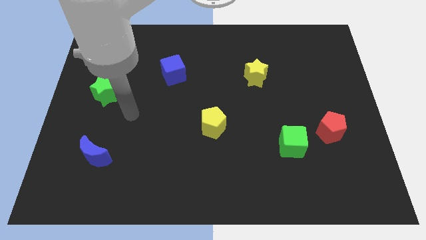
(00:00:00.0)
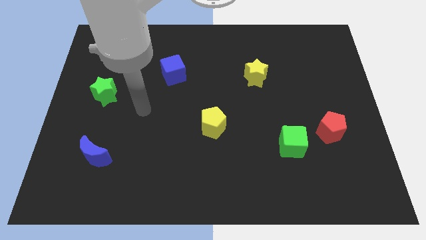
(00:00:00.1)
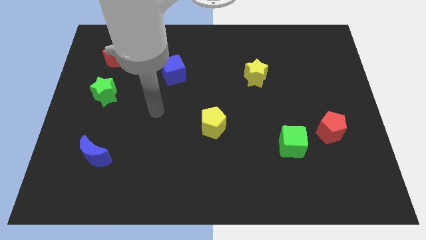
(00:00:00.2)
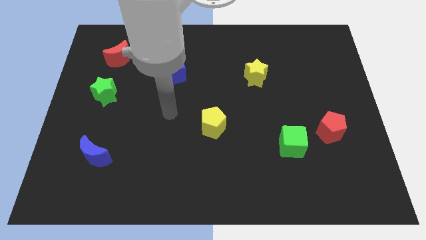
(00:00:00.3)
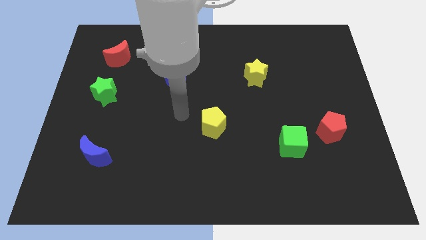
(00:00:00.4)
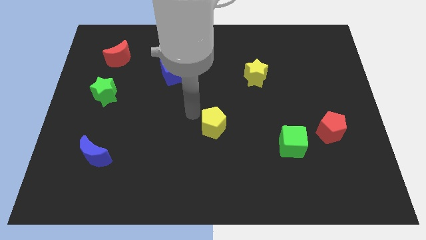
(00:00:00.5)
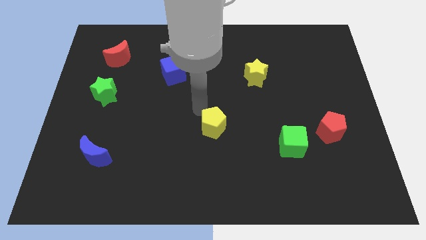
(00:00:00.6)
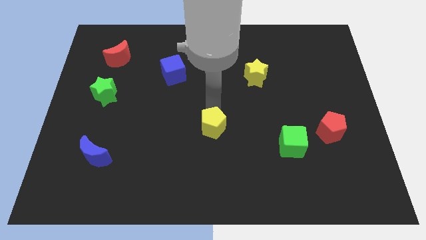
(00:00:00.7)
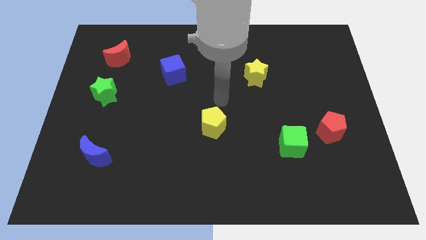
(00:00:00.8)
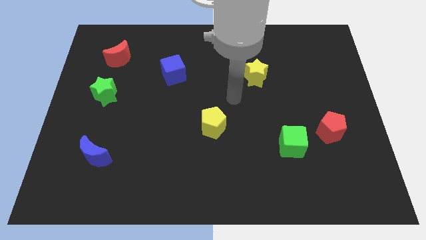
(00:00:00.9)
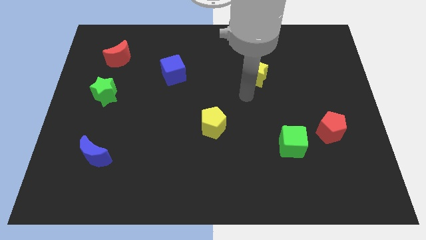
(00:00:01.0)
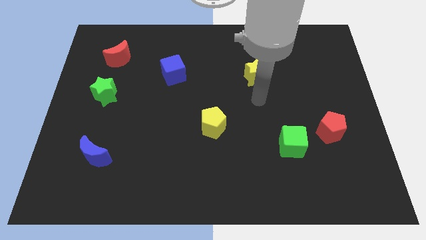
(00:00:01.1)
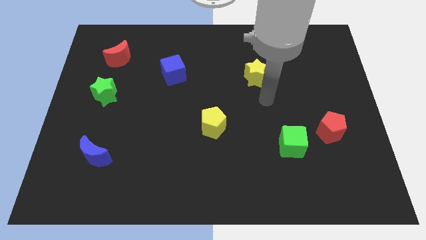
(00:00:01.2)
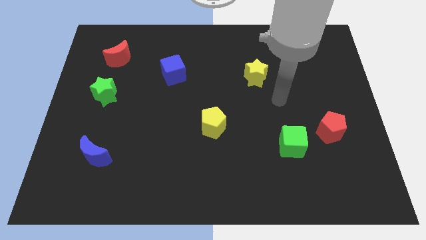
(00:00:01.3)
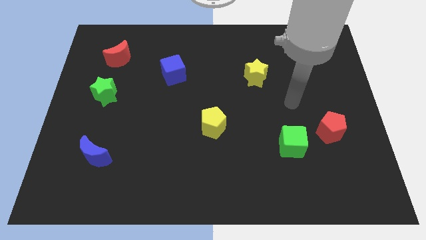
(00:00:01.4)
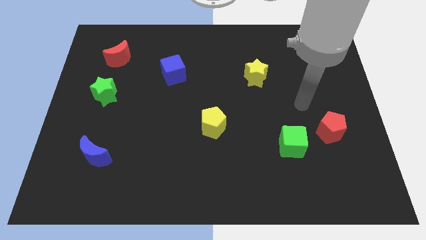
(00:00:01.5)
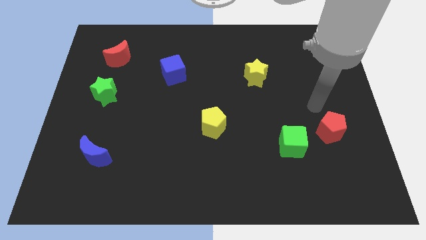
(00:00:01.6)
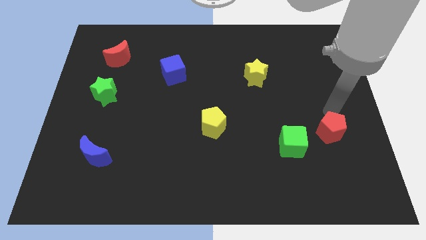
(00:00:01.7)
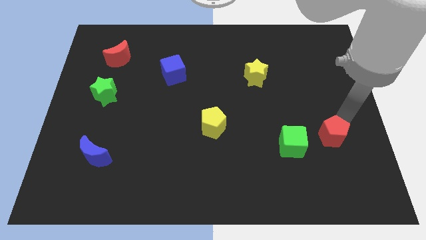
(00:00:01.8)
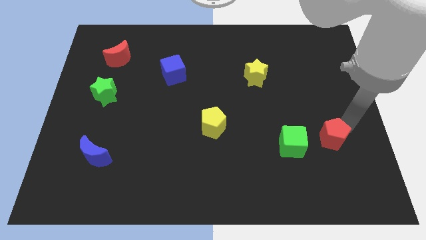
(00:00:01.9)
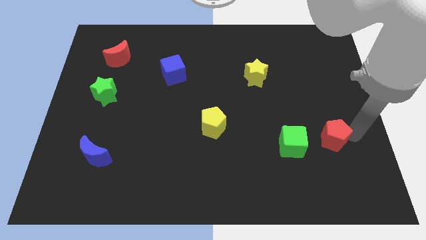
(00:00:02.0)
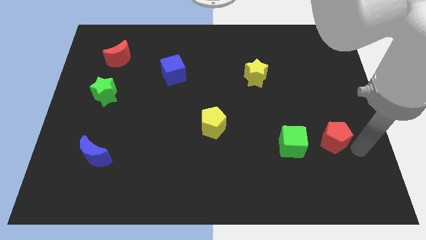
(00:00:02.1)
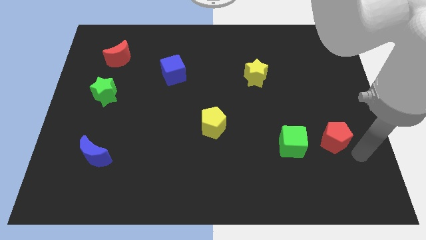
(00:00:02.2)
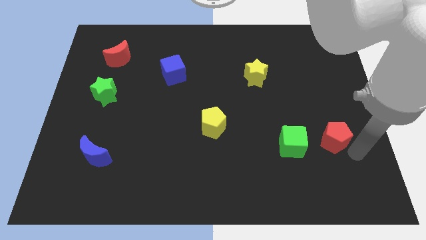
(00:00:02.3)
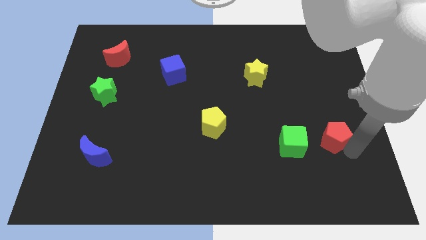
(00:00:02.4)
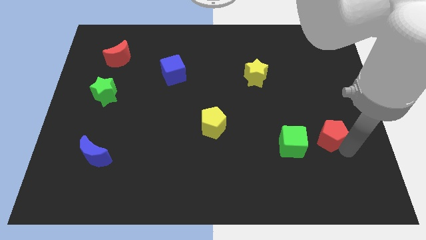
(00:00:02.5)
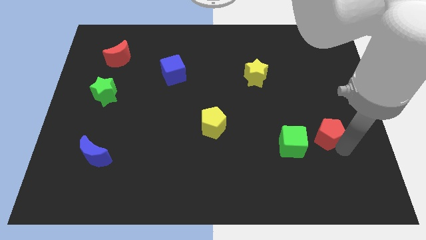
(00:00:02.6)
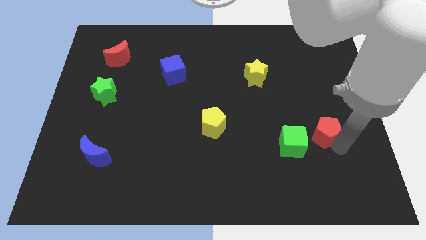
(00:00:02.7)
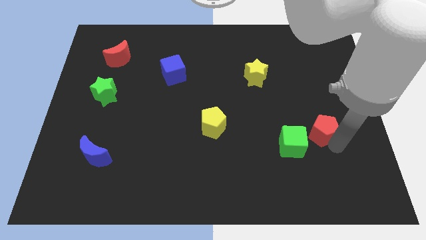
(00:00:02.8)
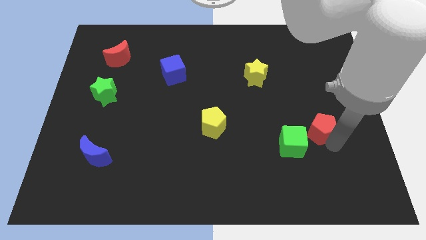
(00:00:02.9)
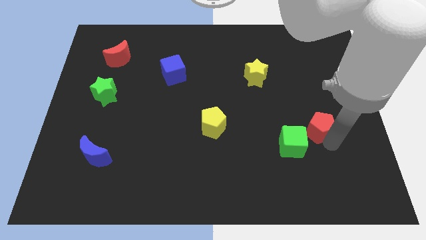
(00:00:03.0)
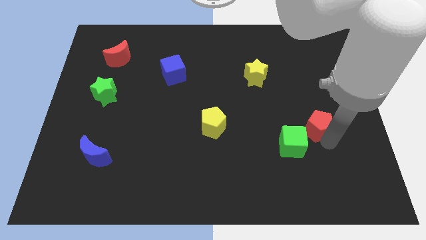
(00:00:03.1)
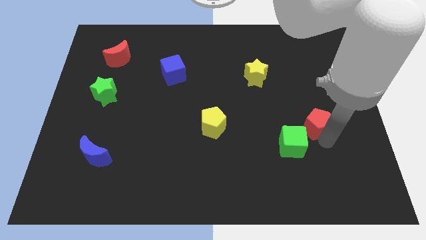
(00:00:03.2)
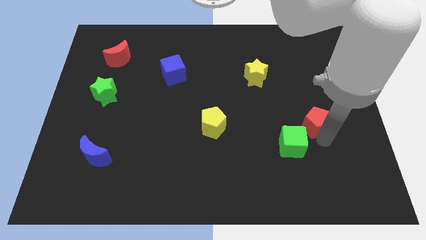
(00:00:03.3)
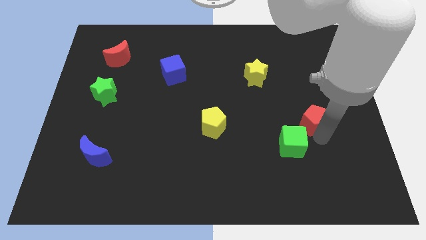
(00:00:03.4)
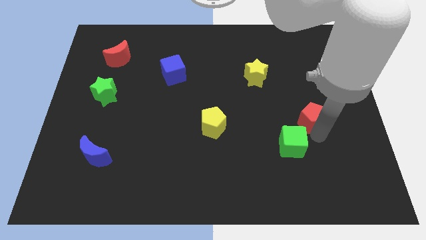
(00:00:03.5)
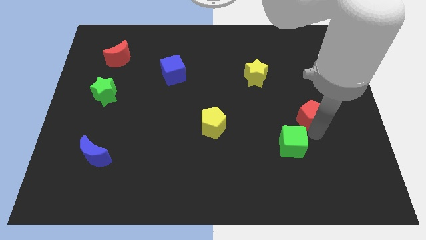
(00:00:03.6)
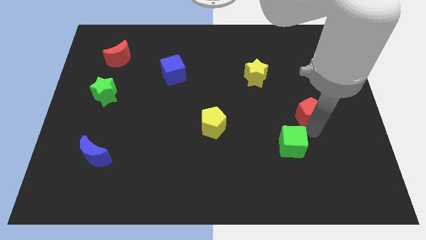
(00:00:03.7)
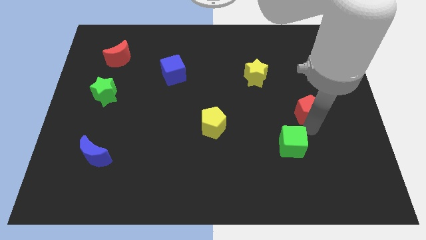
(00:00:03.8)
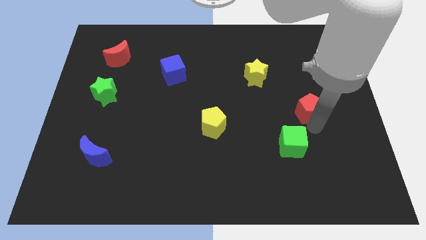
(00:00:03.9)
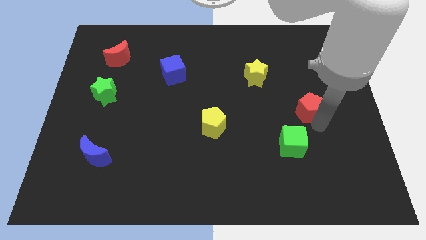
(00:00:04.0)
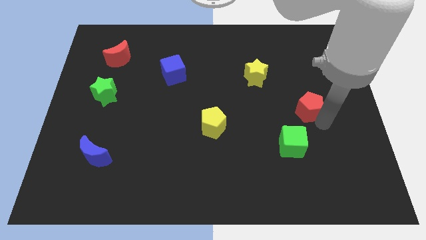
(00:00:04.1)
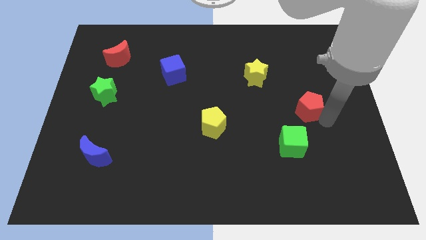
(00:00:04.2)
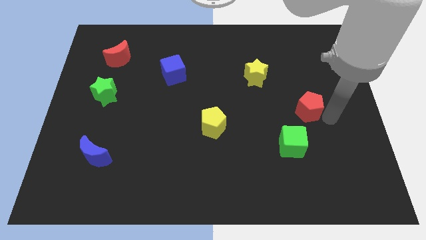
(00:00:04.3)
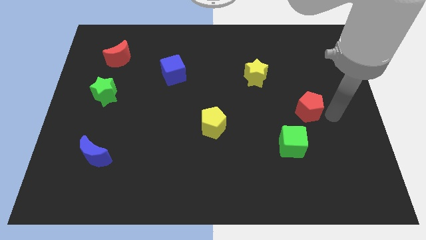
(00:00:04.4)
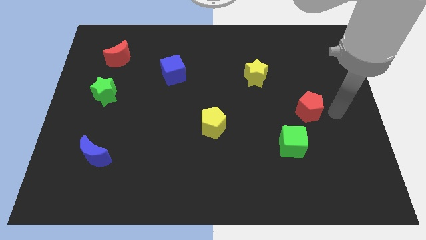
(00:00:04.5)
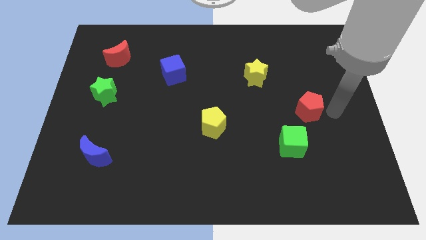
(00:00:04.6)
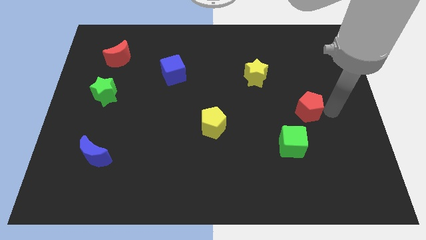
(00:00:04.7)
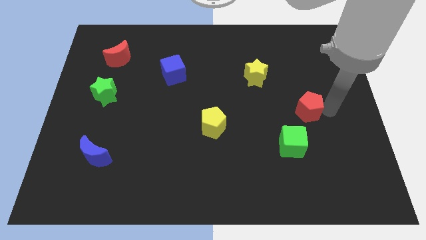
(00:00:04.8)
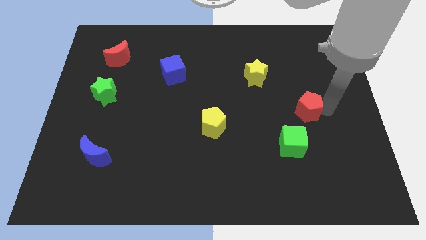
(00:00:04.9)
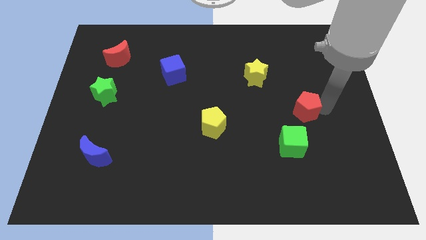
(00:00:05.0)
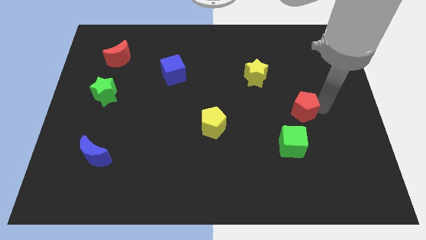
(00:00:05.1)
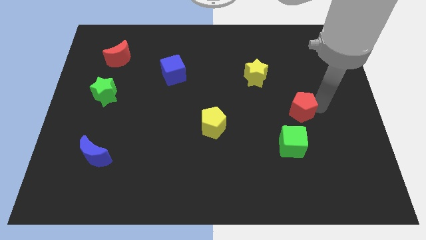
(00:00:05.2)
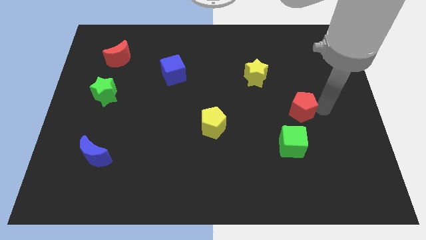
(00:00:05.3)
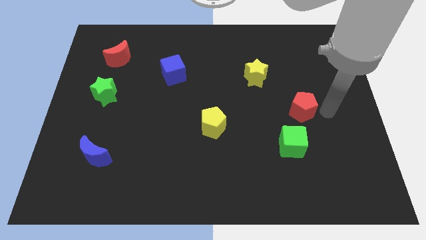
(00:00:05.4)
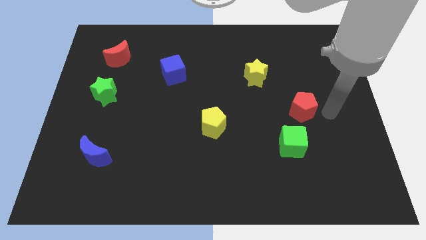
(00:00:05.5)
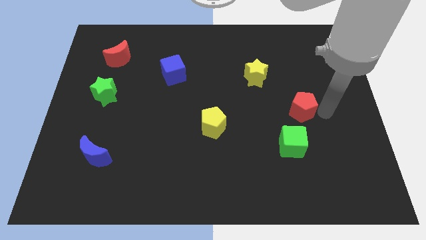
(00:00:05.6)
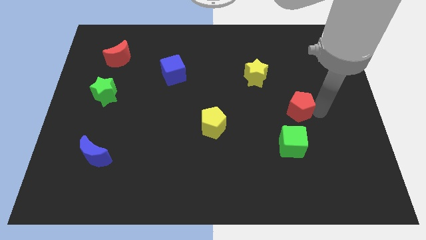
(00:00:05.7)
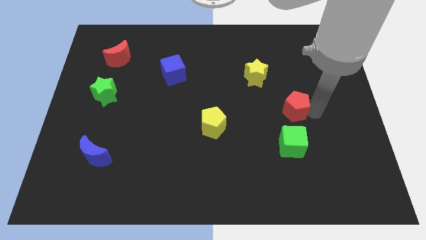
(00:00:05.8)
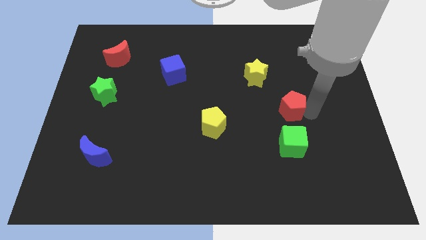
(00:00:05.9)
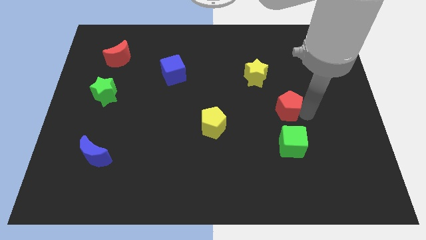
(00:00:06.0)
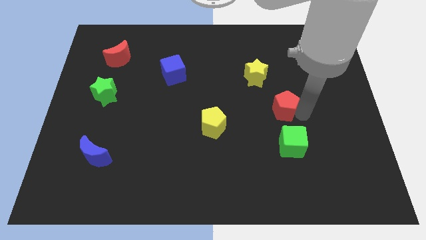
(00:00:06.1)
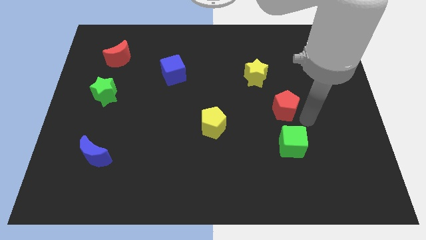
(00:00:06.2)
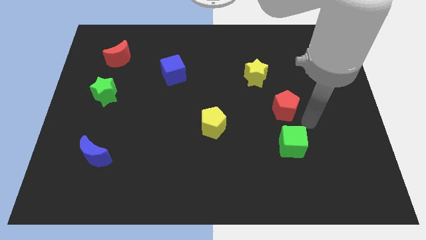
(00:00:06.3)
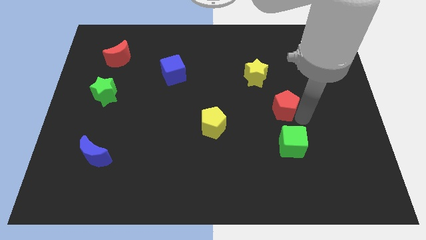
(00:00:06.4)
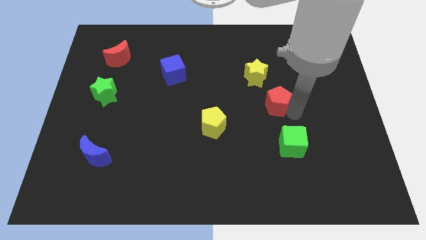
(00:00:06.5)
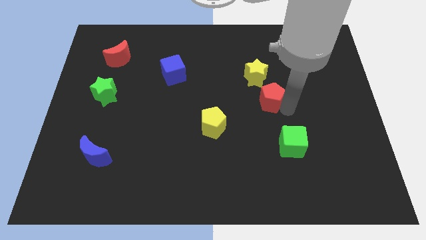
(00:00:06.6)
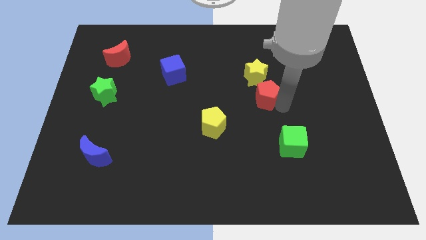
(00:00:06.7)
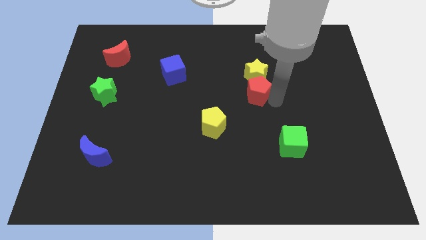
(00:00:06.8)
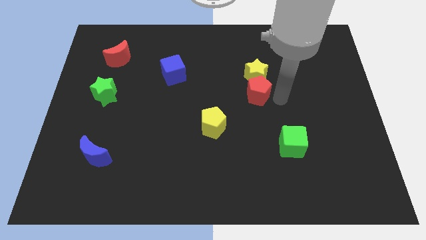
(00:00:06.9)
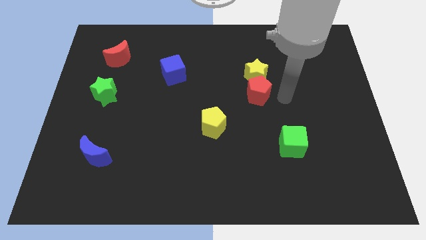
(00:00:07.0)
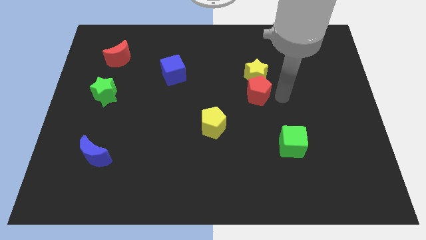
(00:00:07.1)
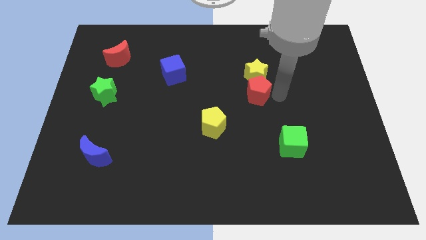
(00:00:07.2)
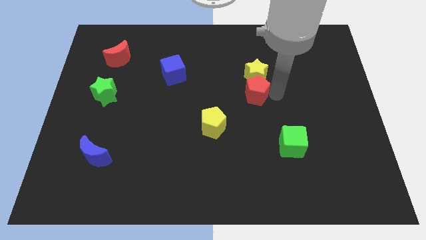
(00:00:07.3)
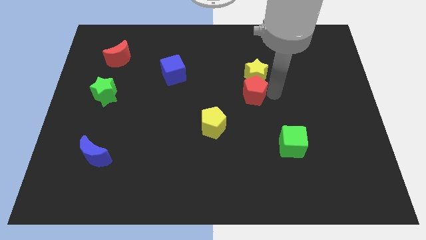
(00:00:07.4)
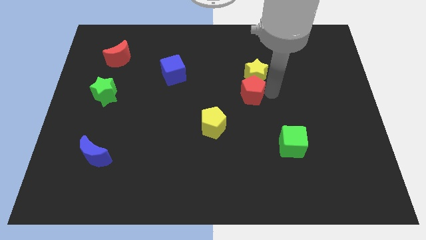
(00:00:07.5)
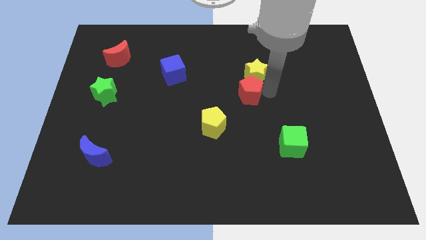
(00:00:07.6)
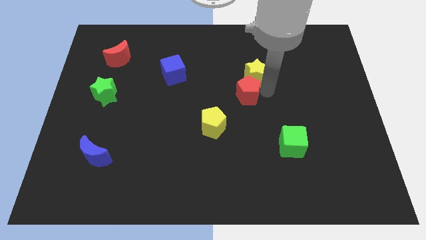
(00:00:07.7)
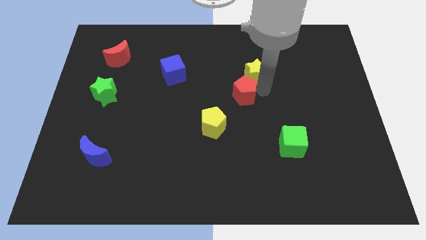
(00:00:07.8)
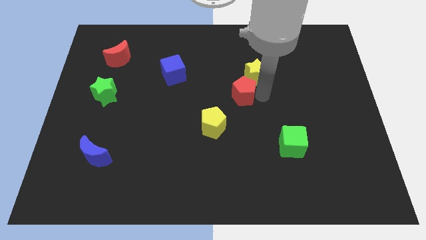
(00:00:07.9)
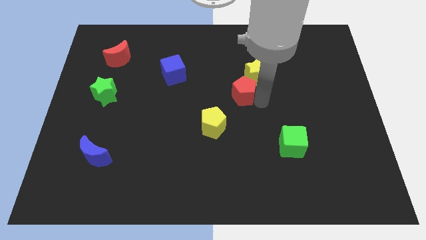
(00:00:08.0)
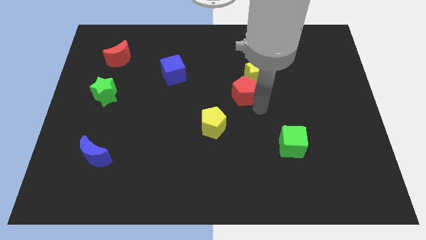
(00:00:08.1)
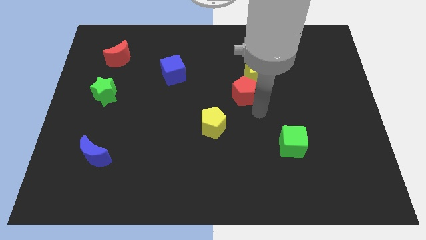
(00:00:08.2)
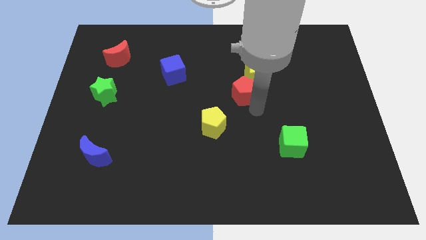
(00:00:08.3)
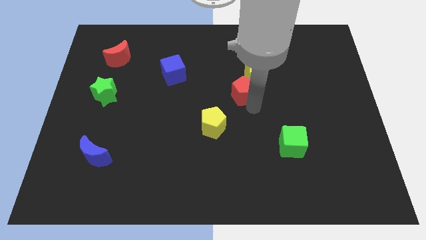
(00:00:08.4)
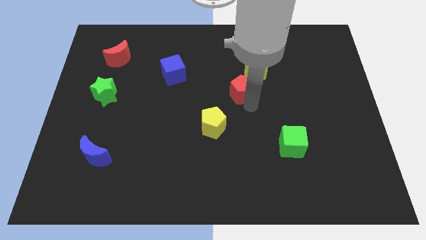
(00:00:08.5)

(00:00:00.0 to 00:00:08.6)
slide the red pentagon upwards and to the left diagonally
